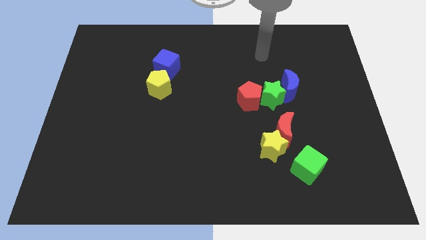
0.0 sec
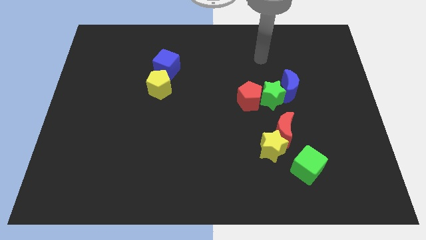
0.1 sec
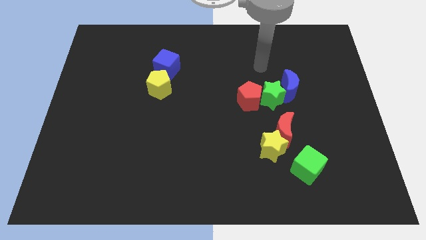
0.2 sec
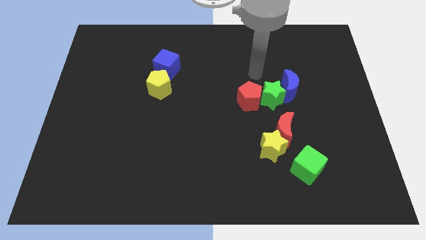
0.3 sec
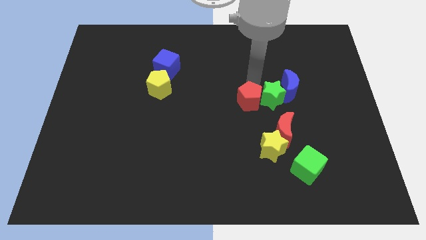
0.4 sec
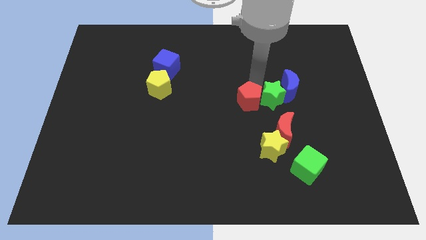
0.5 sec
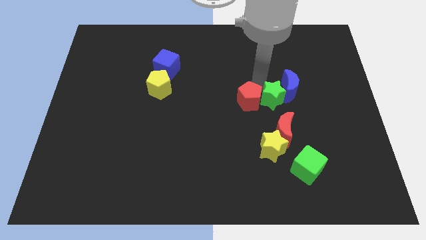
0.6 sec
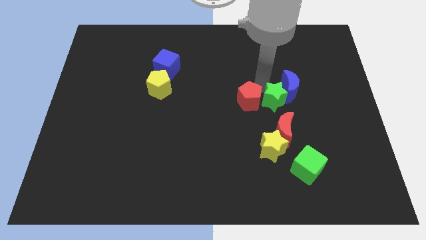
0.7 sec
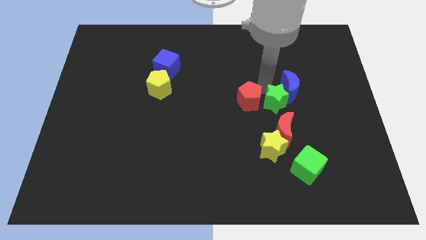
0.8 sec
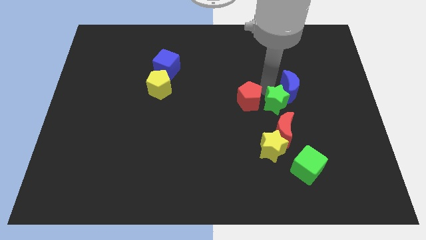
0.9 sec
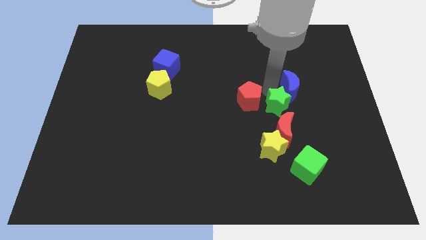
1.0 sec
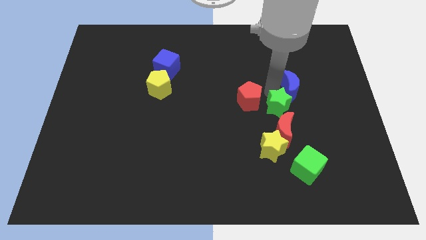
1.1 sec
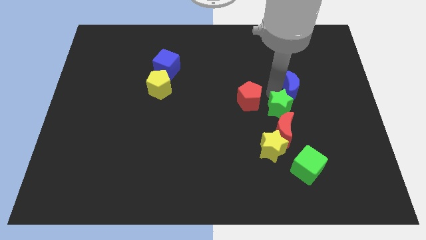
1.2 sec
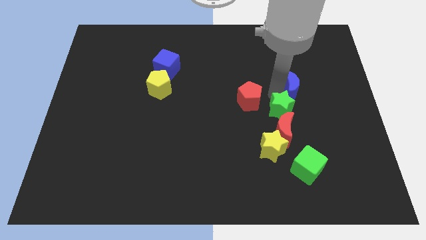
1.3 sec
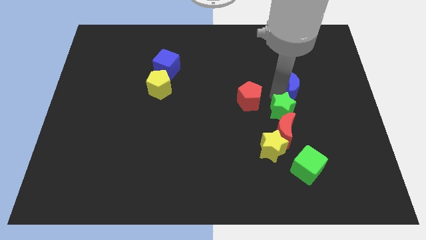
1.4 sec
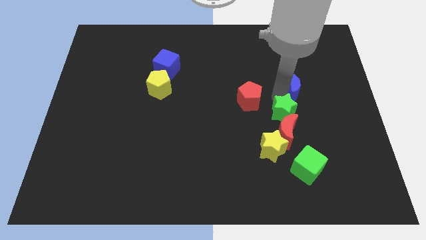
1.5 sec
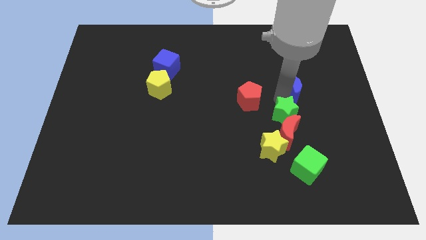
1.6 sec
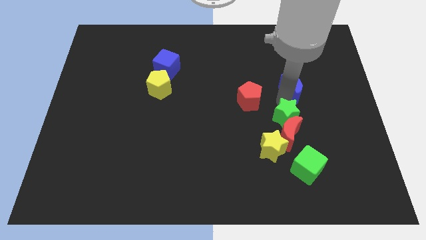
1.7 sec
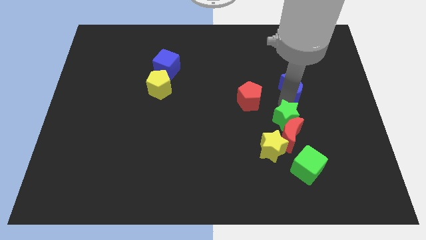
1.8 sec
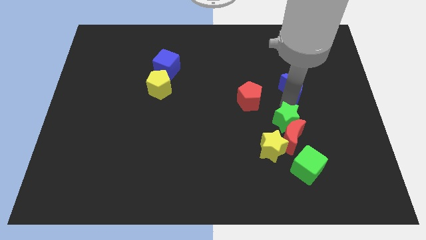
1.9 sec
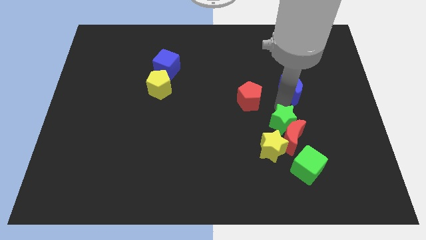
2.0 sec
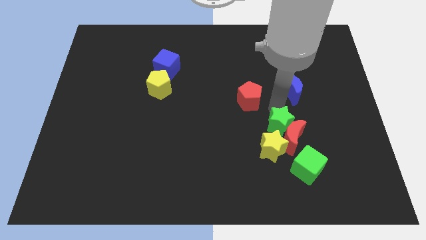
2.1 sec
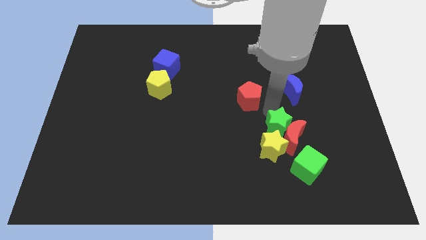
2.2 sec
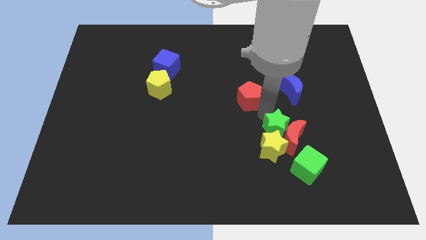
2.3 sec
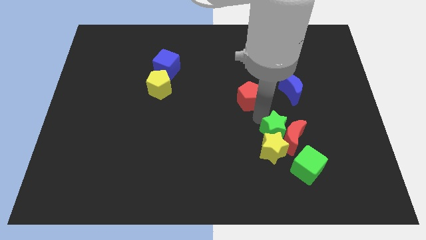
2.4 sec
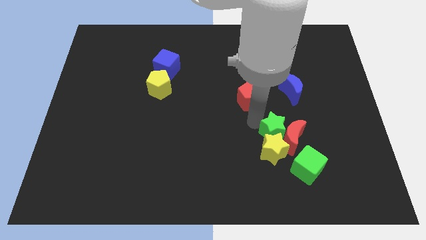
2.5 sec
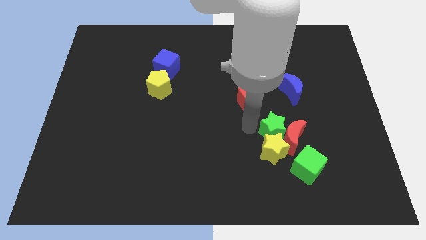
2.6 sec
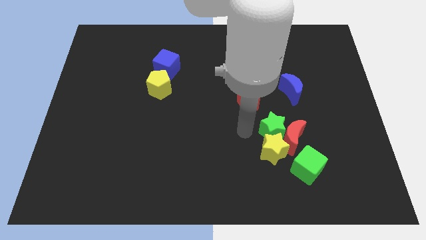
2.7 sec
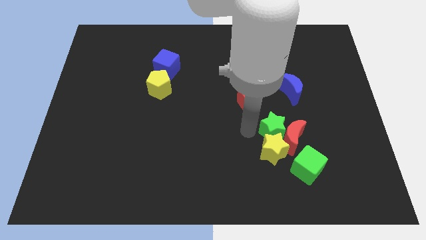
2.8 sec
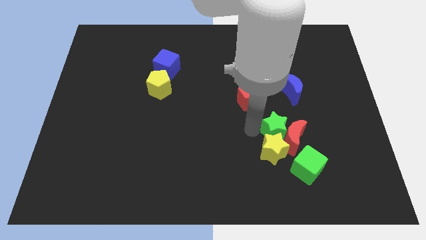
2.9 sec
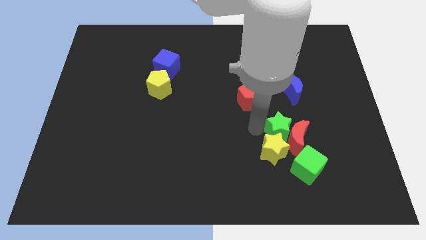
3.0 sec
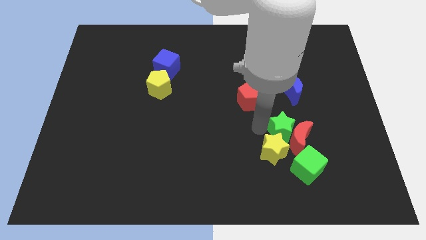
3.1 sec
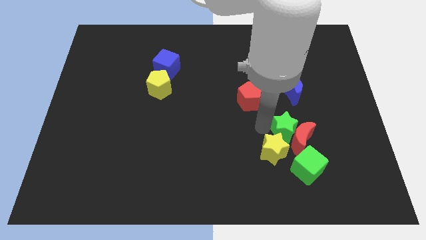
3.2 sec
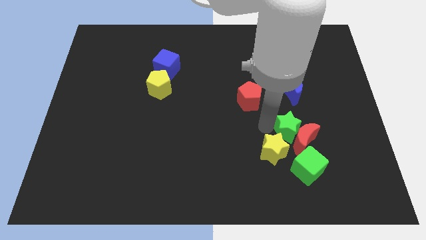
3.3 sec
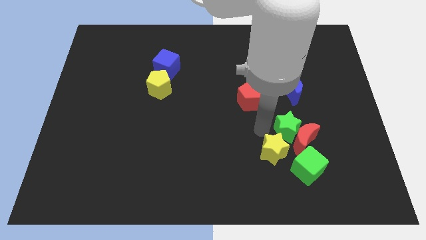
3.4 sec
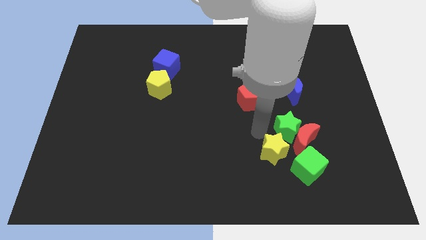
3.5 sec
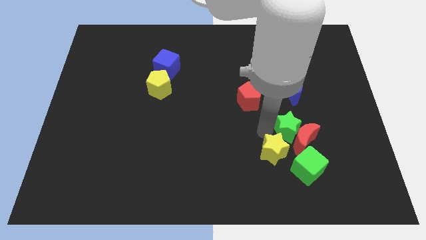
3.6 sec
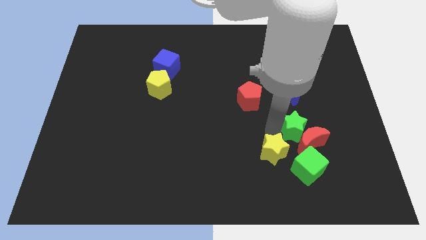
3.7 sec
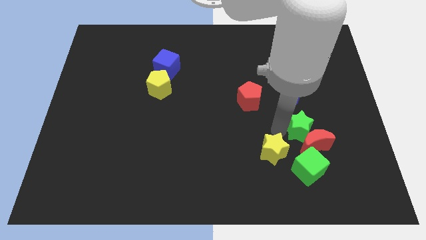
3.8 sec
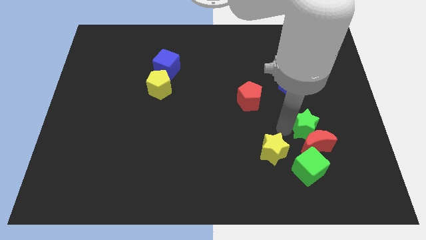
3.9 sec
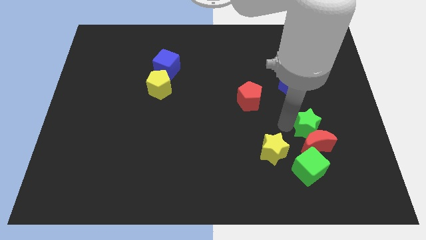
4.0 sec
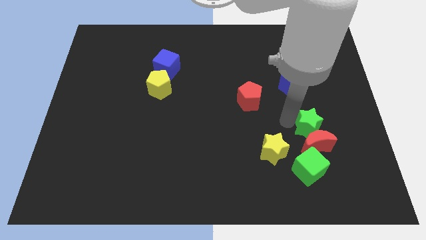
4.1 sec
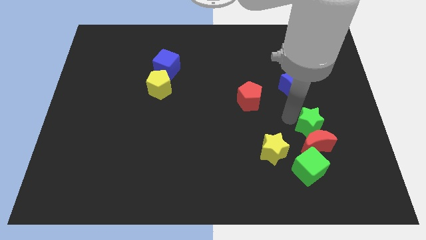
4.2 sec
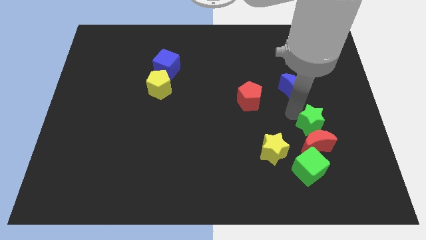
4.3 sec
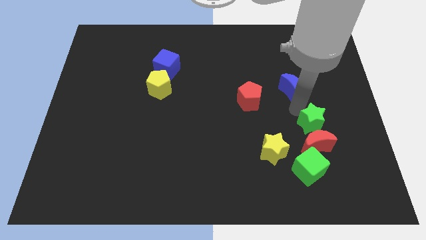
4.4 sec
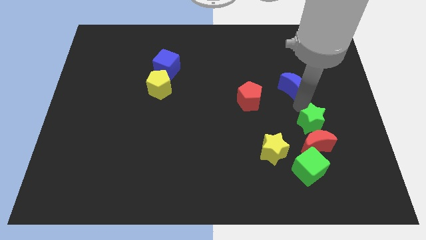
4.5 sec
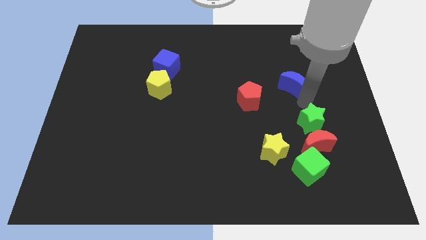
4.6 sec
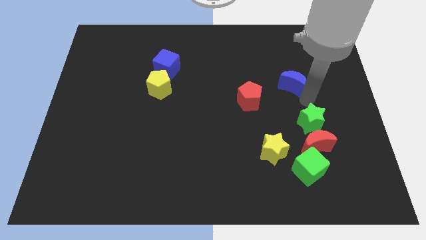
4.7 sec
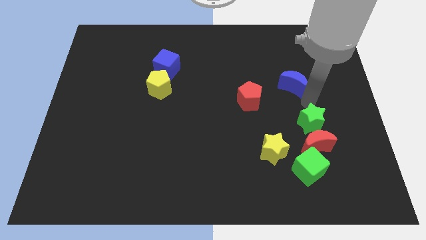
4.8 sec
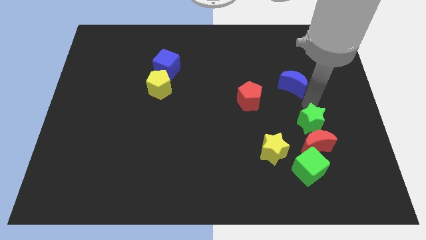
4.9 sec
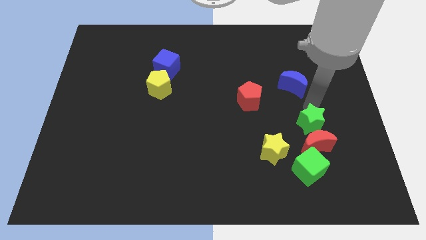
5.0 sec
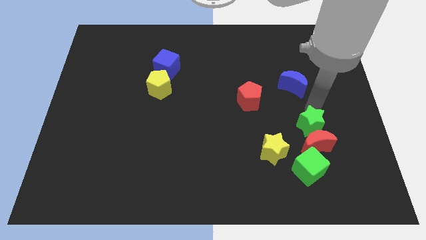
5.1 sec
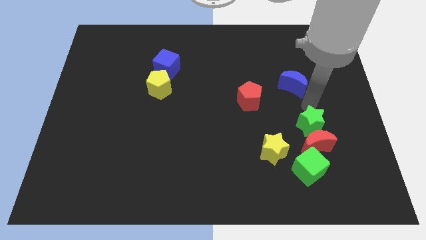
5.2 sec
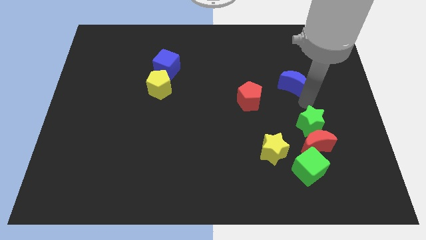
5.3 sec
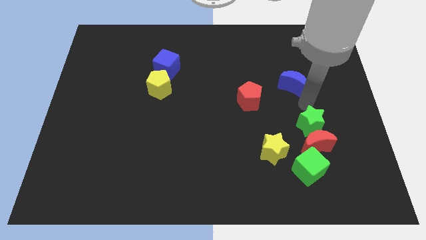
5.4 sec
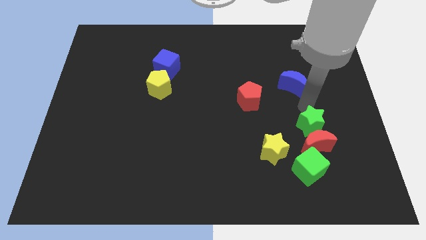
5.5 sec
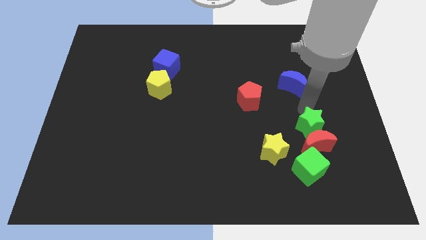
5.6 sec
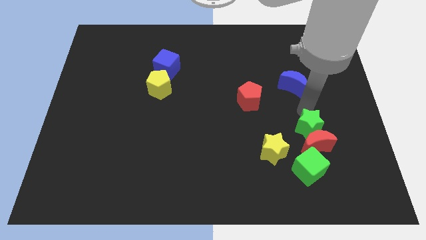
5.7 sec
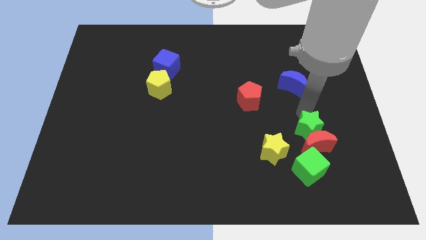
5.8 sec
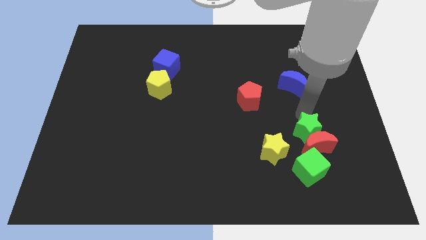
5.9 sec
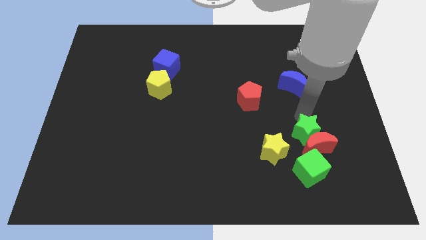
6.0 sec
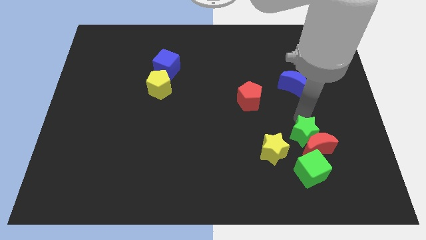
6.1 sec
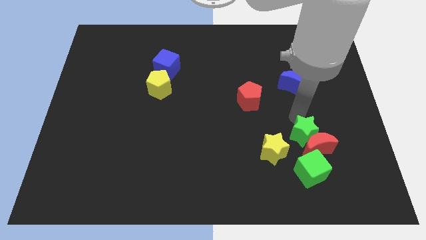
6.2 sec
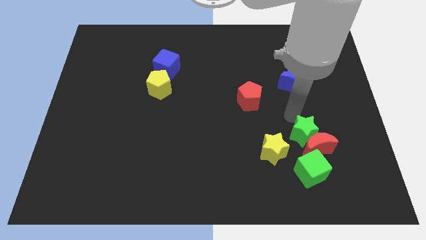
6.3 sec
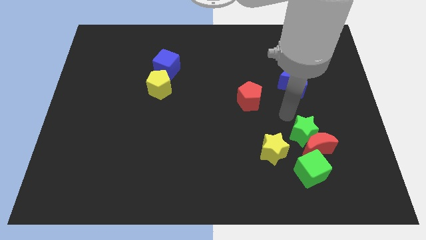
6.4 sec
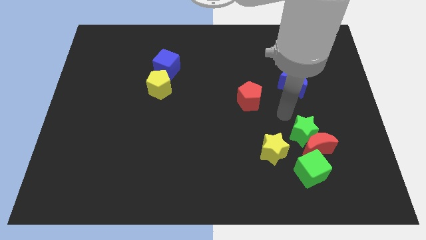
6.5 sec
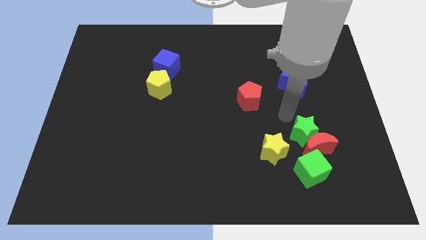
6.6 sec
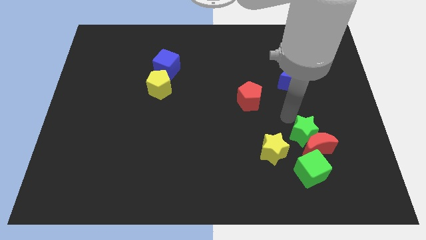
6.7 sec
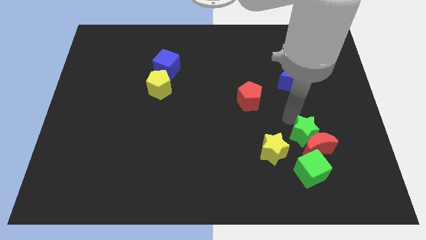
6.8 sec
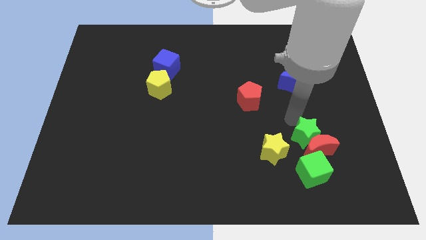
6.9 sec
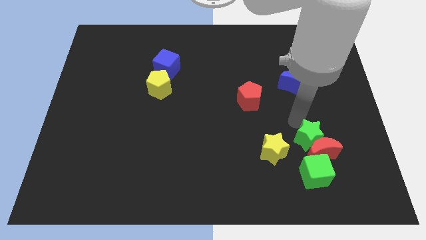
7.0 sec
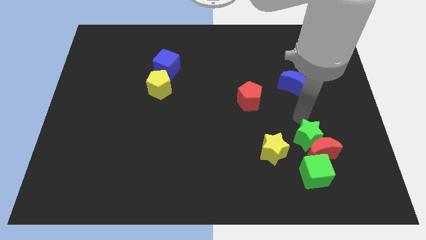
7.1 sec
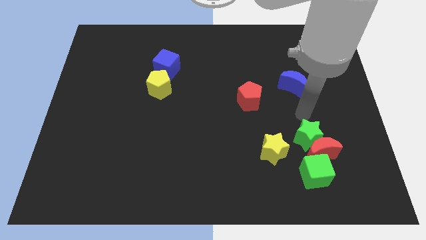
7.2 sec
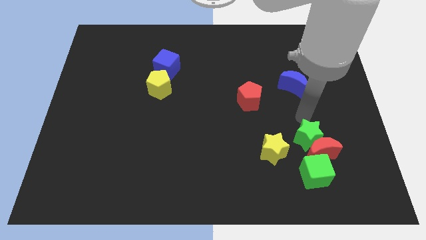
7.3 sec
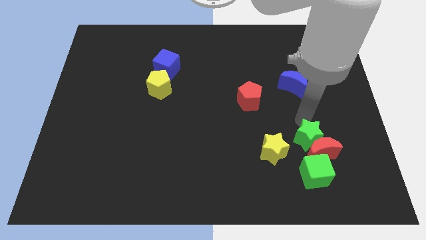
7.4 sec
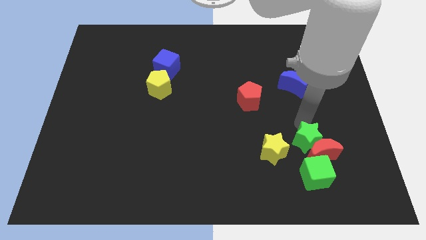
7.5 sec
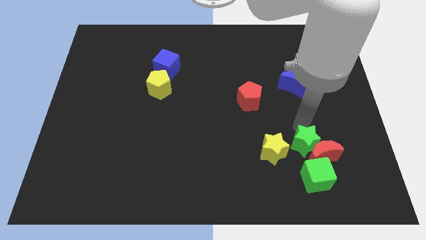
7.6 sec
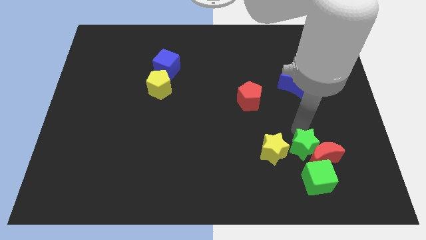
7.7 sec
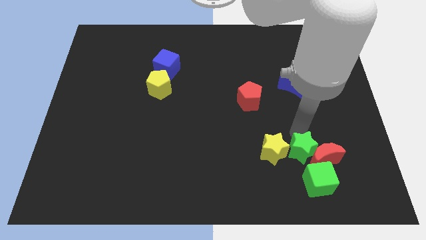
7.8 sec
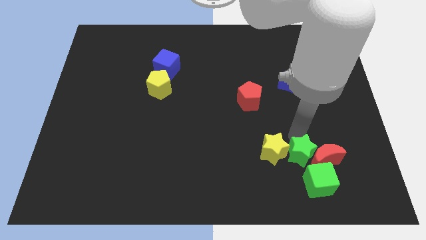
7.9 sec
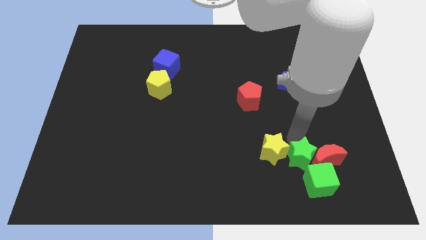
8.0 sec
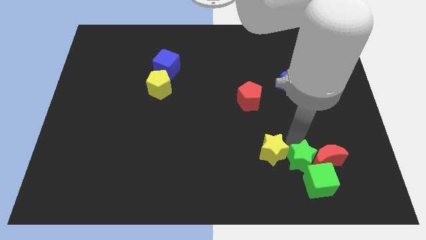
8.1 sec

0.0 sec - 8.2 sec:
slide the green star to the green cube
